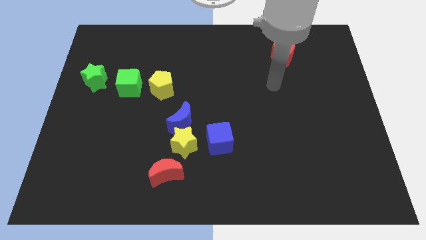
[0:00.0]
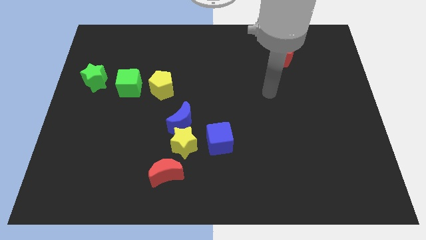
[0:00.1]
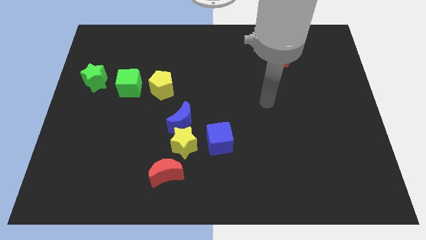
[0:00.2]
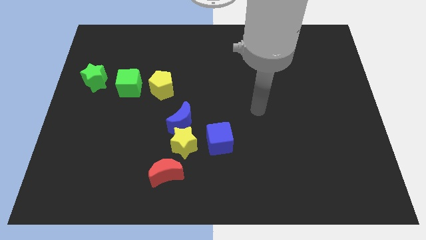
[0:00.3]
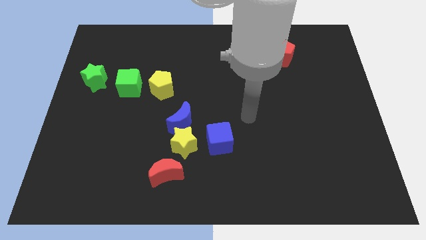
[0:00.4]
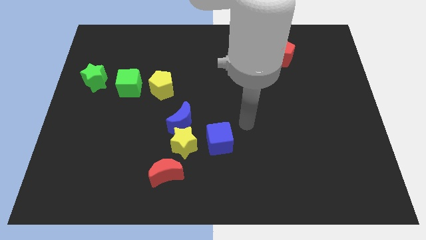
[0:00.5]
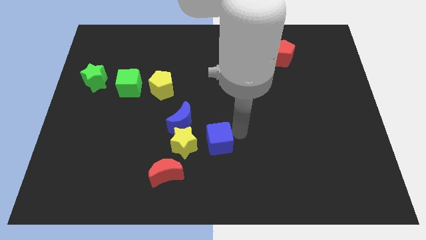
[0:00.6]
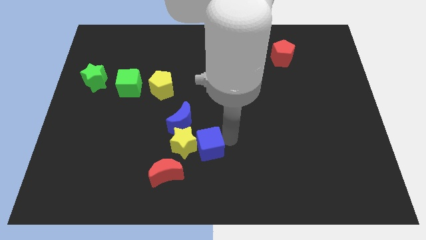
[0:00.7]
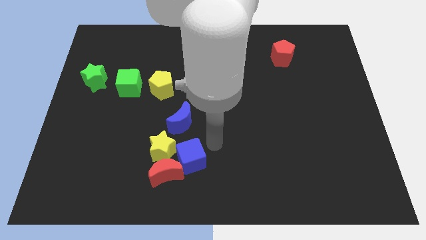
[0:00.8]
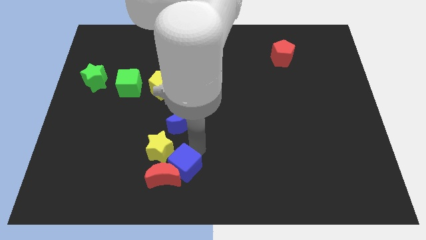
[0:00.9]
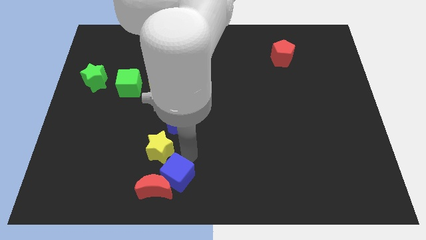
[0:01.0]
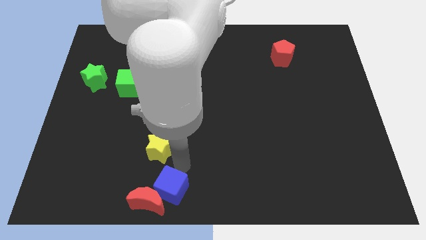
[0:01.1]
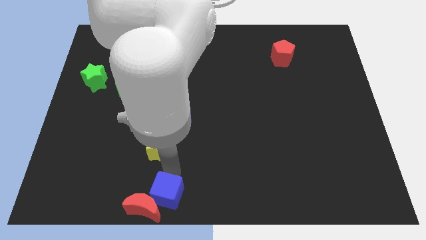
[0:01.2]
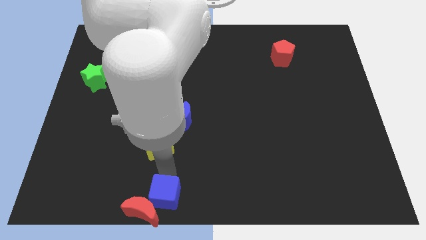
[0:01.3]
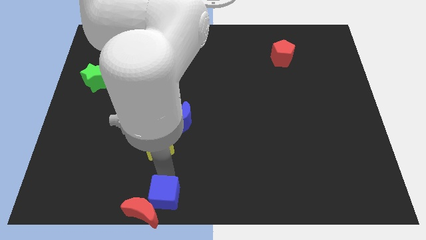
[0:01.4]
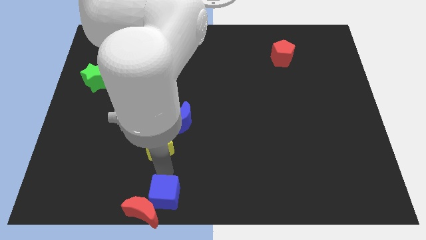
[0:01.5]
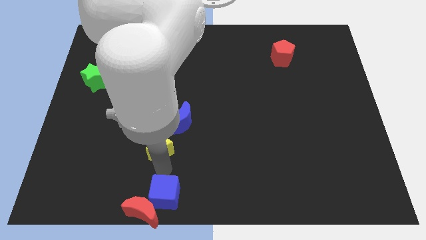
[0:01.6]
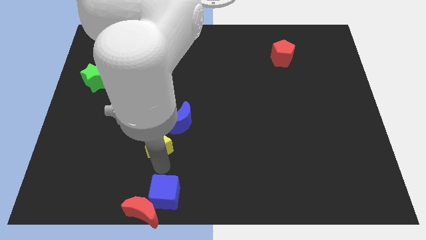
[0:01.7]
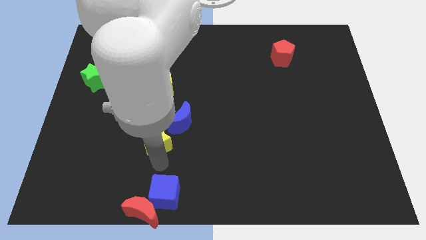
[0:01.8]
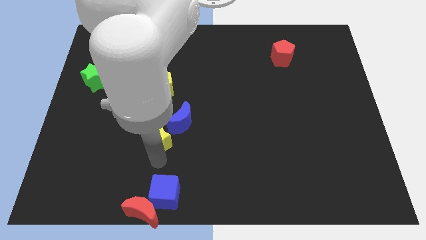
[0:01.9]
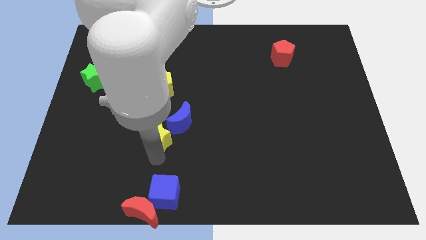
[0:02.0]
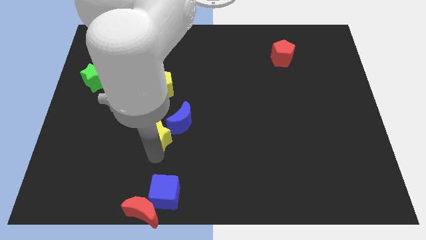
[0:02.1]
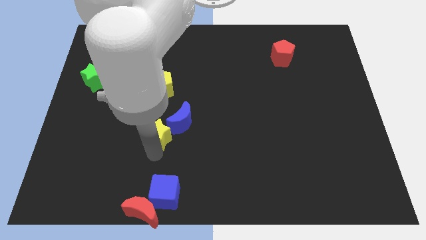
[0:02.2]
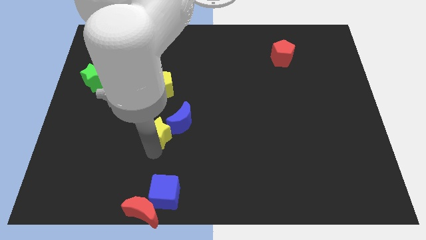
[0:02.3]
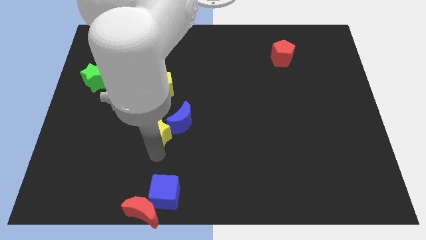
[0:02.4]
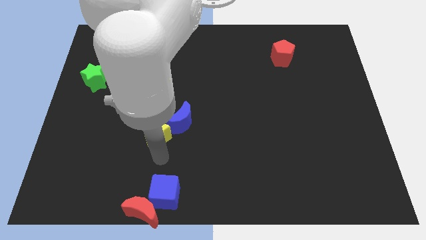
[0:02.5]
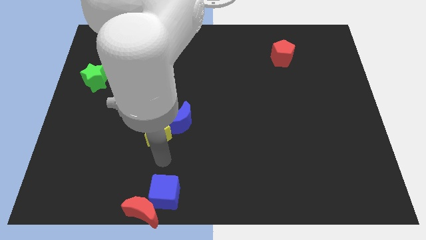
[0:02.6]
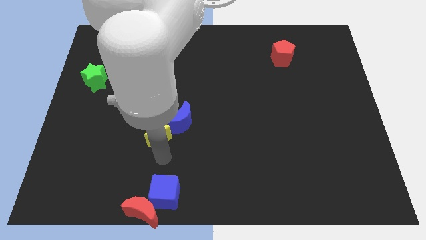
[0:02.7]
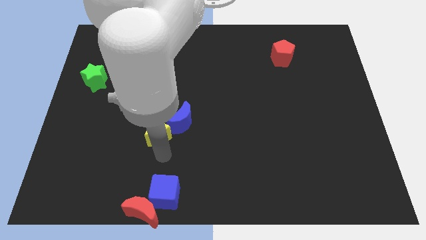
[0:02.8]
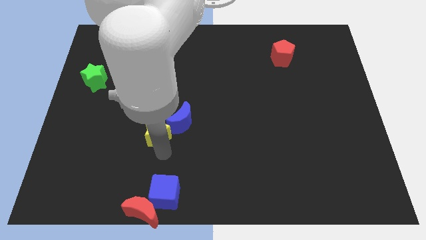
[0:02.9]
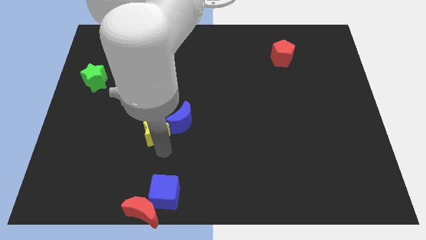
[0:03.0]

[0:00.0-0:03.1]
pull the yellow star apart from the clump

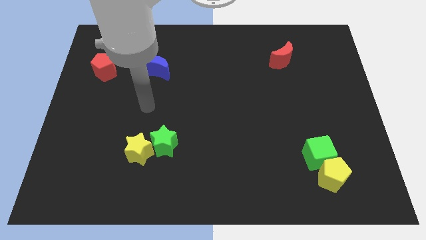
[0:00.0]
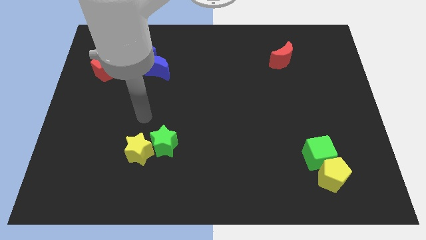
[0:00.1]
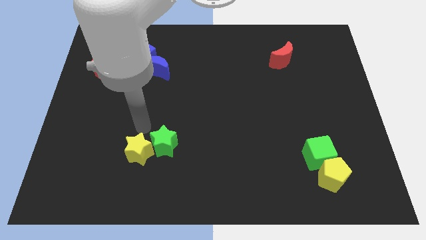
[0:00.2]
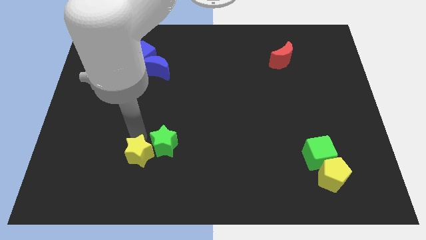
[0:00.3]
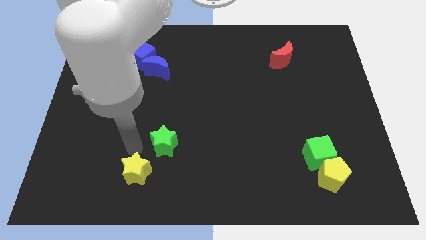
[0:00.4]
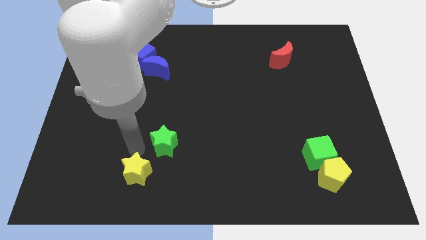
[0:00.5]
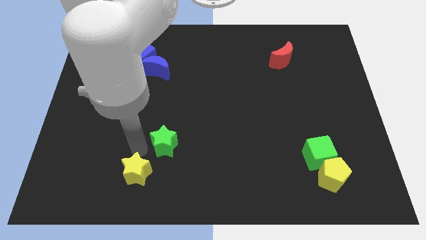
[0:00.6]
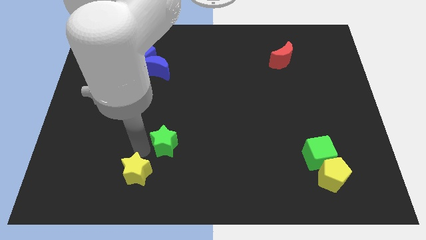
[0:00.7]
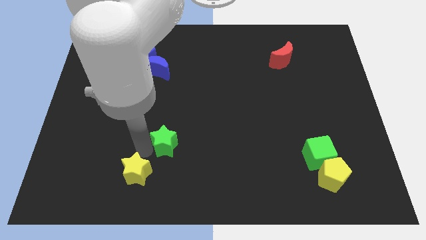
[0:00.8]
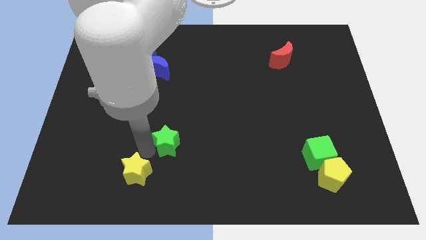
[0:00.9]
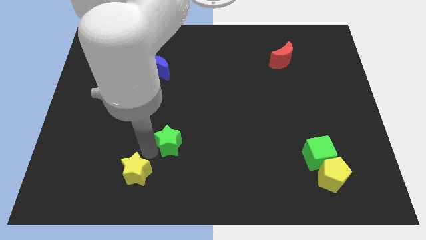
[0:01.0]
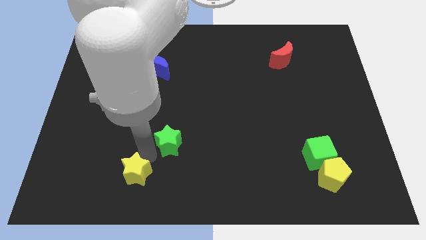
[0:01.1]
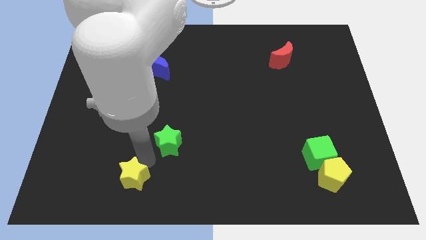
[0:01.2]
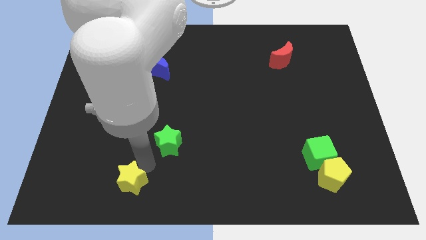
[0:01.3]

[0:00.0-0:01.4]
pull the green star apart from the yellow star

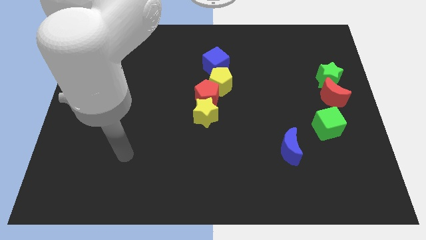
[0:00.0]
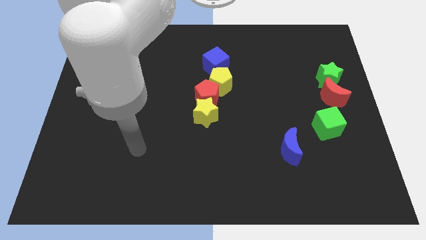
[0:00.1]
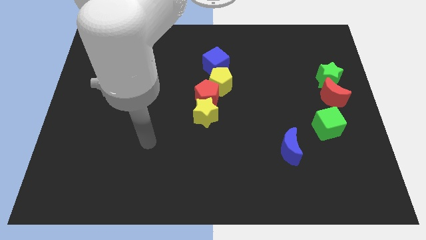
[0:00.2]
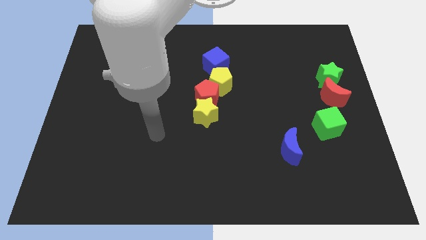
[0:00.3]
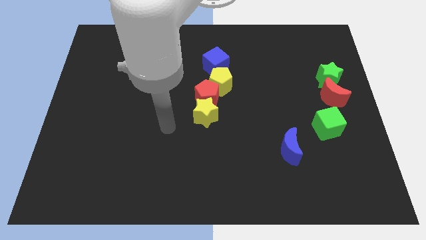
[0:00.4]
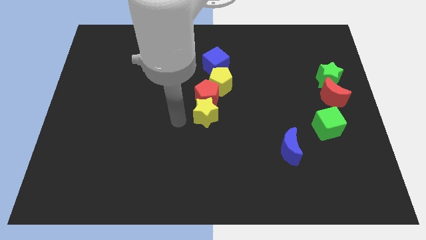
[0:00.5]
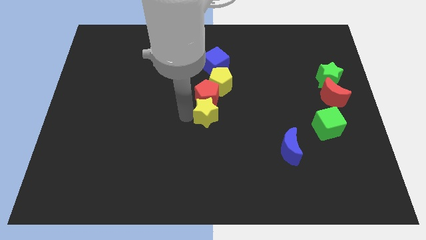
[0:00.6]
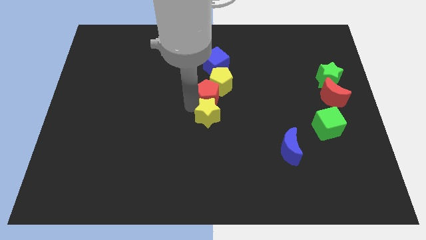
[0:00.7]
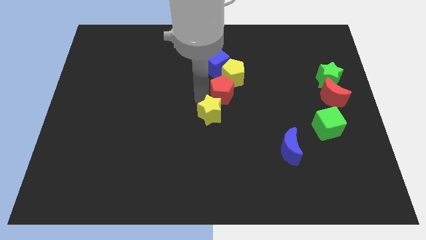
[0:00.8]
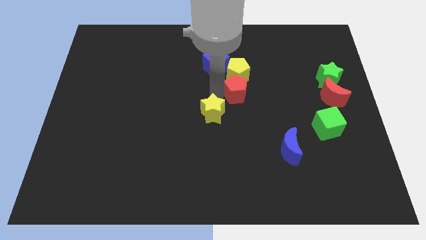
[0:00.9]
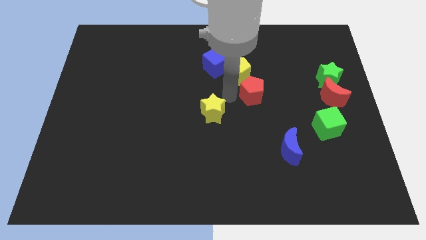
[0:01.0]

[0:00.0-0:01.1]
move the yellow star away from the red pentagon

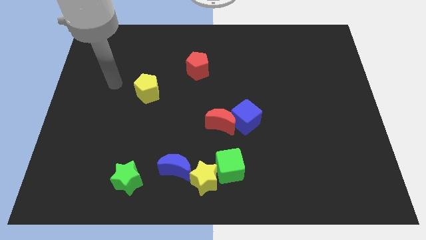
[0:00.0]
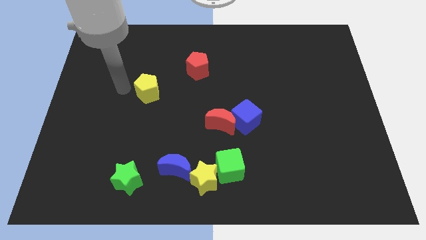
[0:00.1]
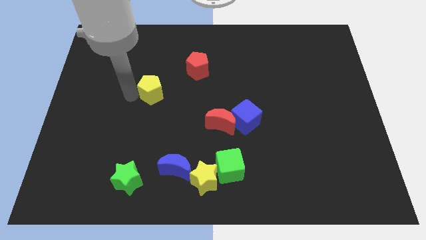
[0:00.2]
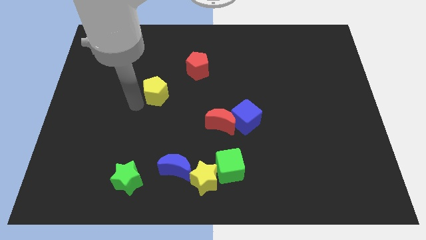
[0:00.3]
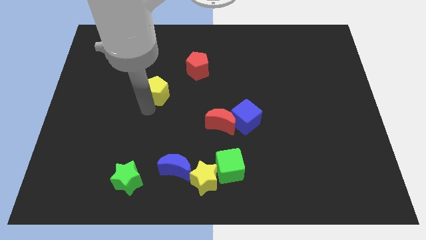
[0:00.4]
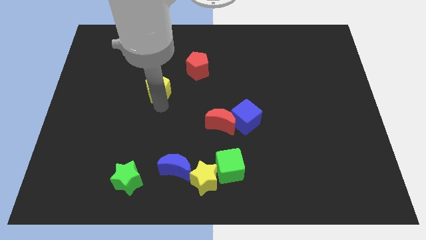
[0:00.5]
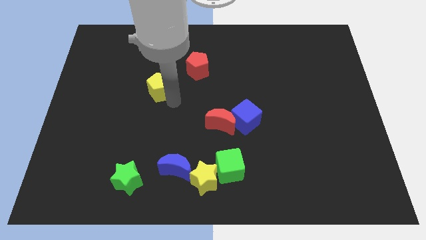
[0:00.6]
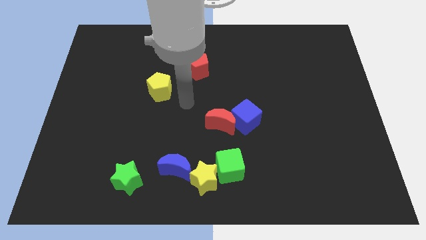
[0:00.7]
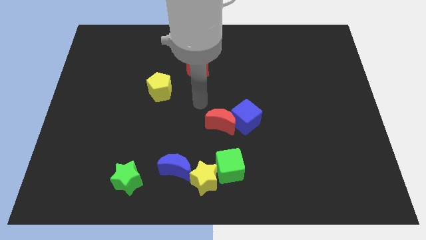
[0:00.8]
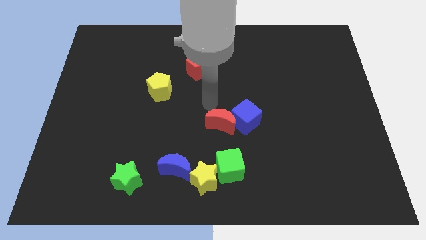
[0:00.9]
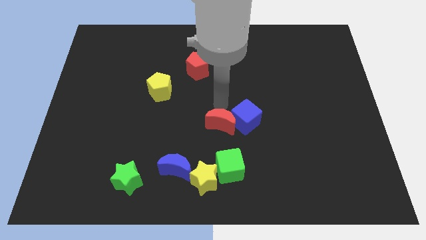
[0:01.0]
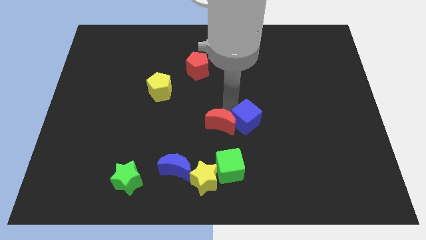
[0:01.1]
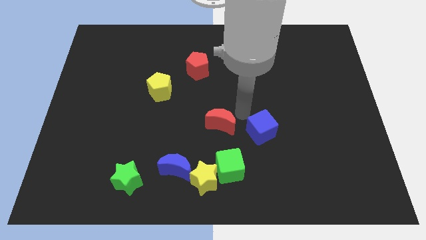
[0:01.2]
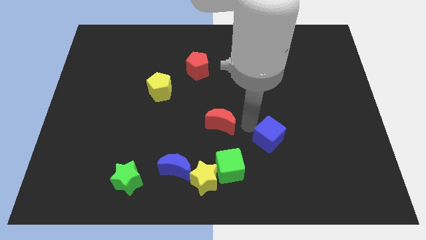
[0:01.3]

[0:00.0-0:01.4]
move the red moon away from the blue cube

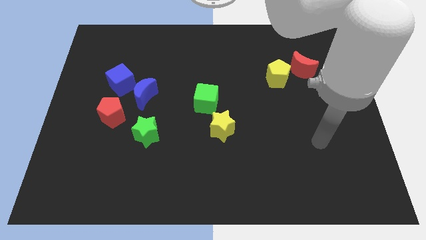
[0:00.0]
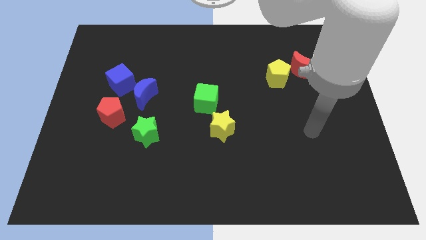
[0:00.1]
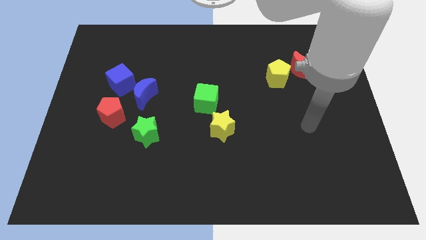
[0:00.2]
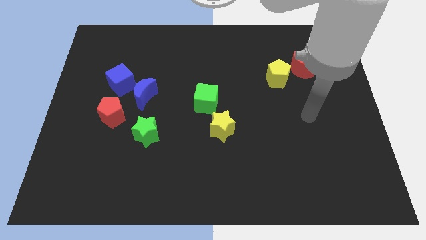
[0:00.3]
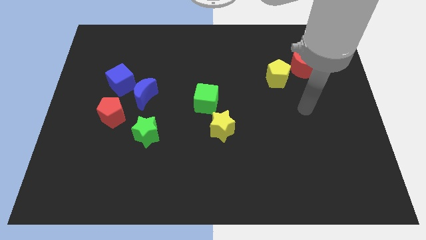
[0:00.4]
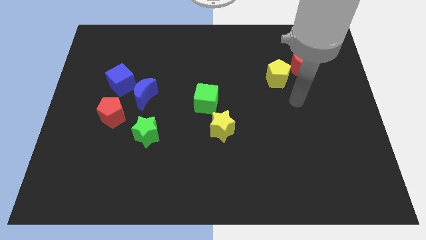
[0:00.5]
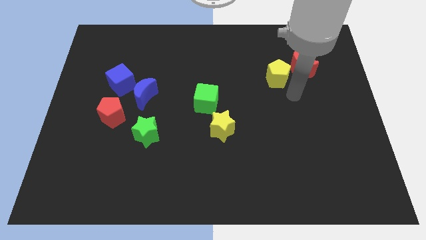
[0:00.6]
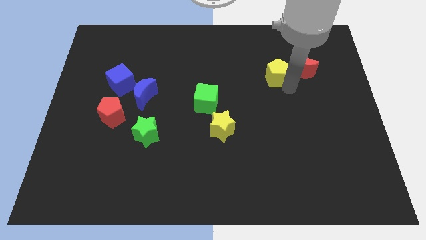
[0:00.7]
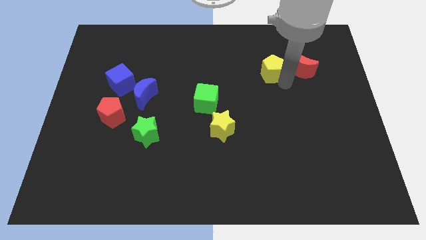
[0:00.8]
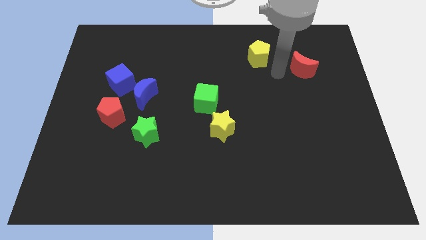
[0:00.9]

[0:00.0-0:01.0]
separate the red moon from the yellow pentagon

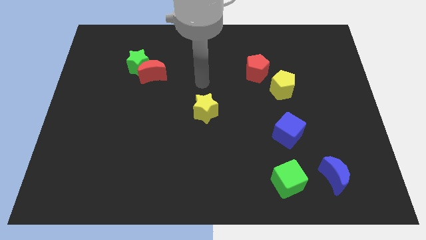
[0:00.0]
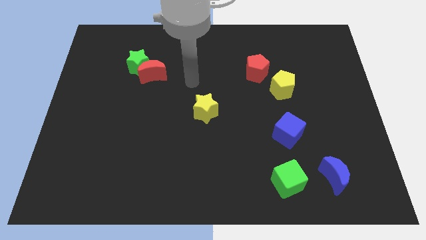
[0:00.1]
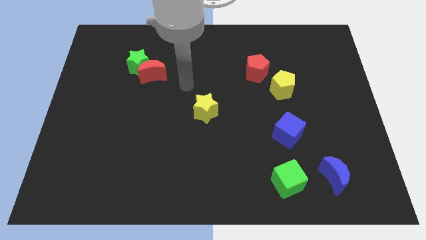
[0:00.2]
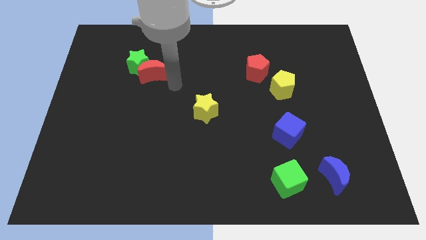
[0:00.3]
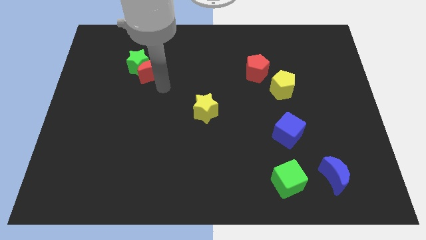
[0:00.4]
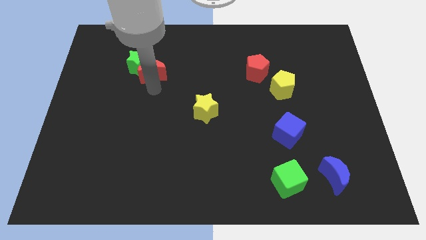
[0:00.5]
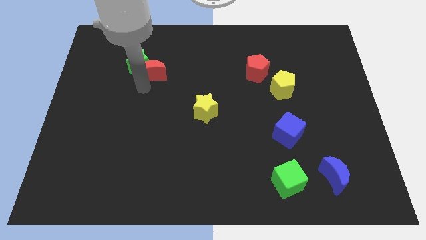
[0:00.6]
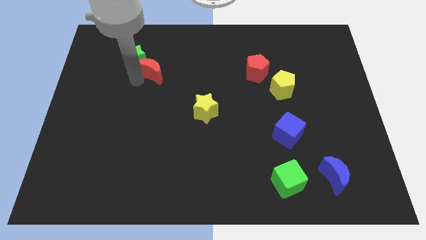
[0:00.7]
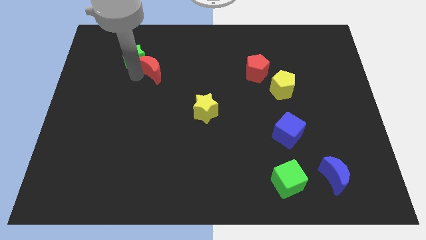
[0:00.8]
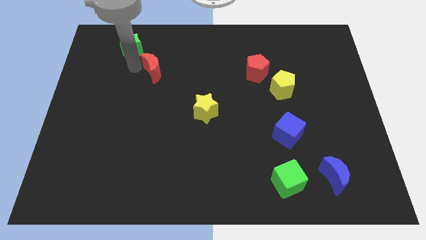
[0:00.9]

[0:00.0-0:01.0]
move the red moon away from the green star

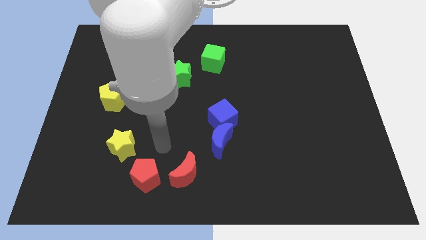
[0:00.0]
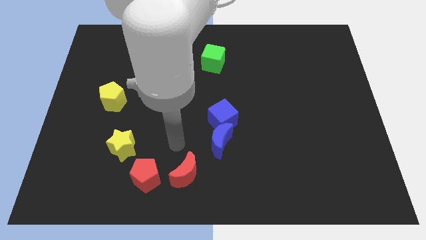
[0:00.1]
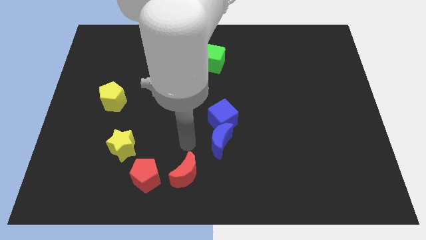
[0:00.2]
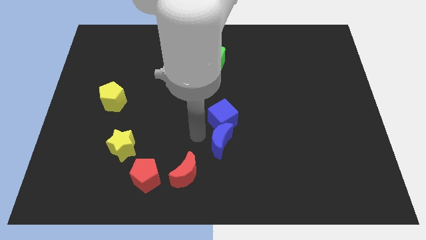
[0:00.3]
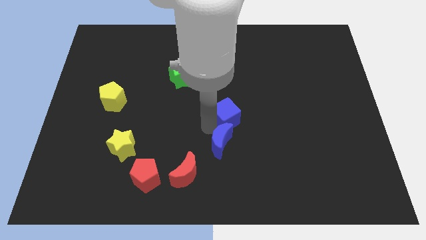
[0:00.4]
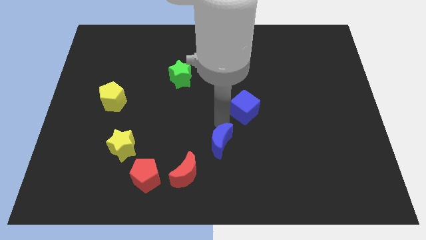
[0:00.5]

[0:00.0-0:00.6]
move the blue moon away from the blue cube
